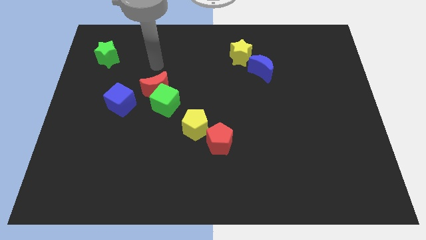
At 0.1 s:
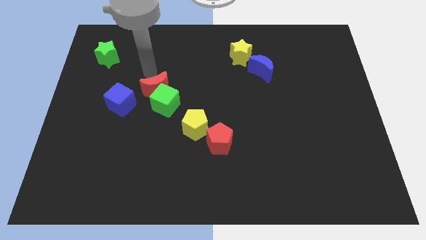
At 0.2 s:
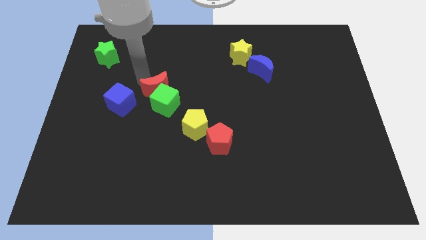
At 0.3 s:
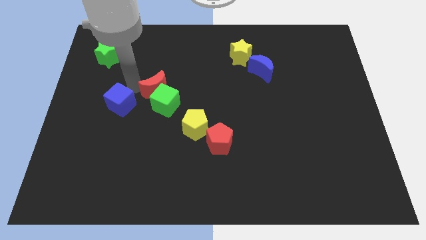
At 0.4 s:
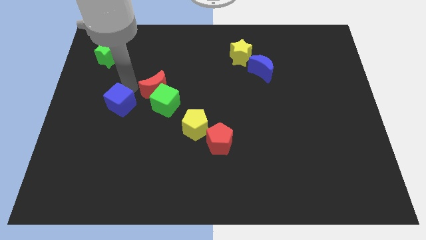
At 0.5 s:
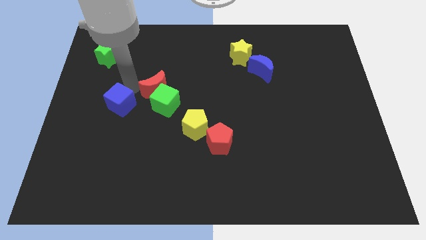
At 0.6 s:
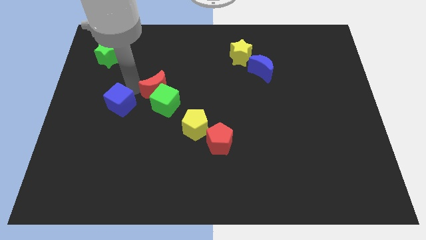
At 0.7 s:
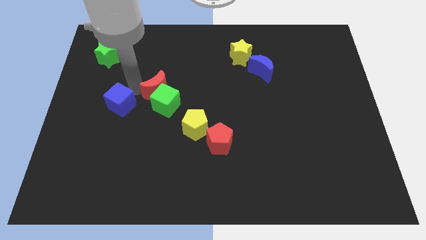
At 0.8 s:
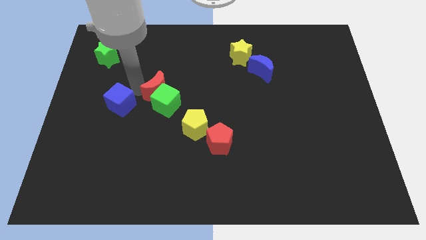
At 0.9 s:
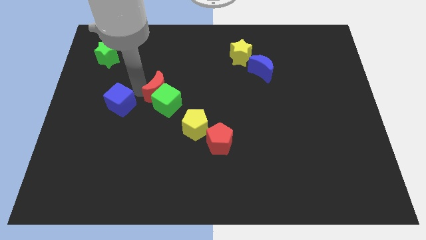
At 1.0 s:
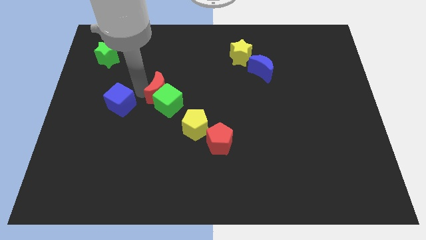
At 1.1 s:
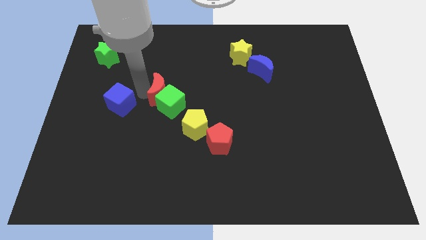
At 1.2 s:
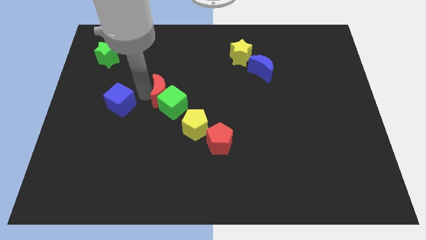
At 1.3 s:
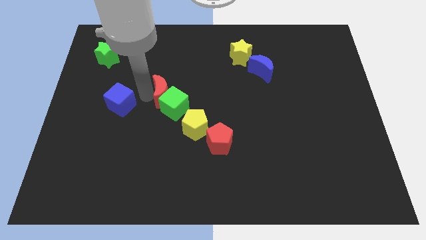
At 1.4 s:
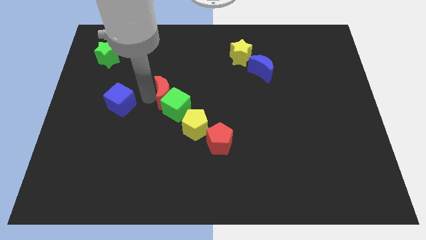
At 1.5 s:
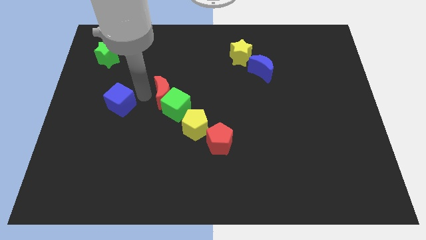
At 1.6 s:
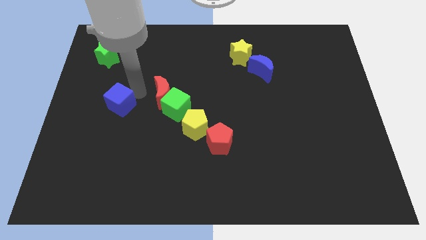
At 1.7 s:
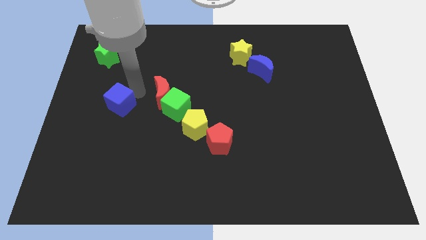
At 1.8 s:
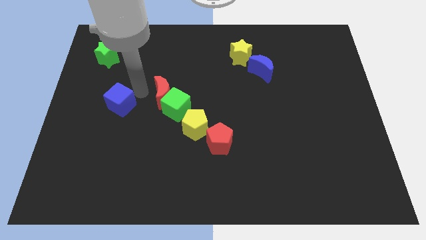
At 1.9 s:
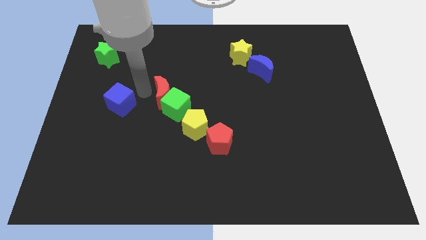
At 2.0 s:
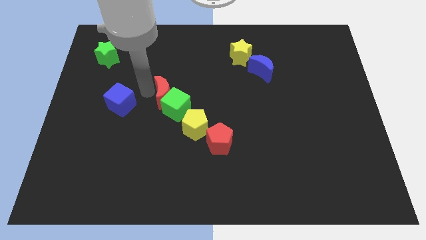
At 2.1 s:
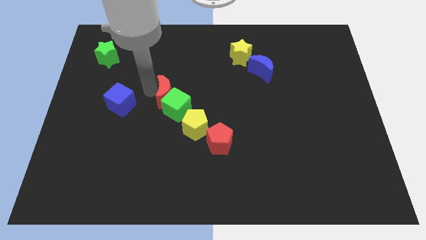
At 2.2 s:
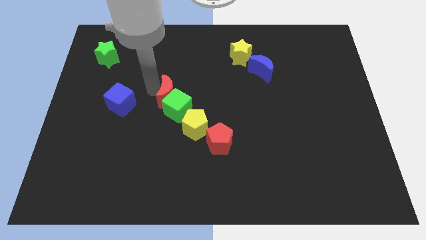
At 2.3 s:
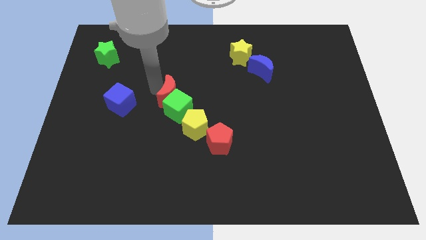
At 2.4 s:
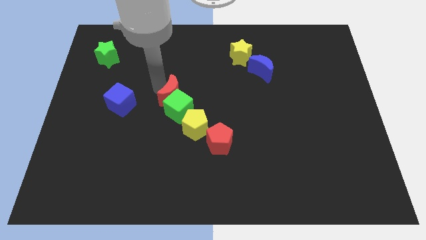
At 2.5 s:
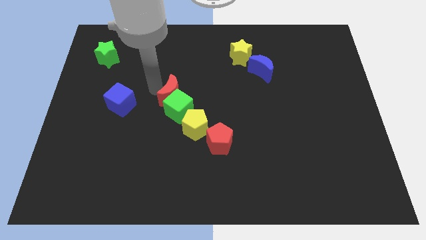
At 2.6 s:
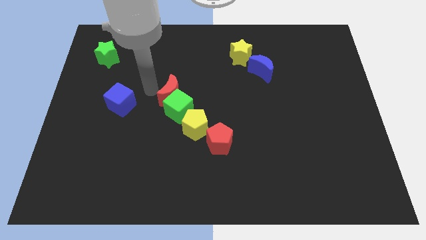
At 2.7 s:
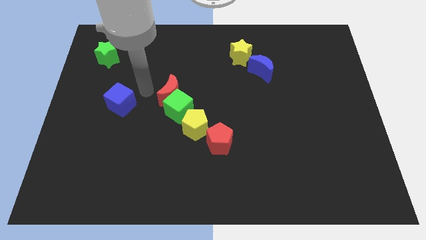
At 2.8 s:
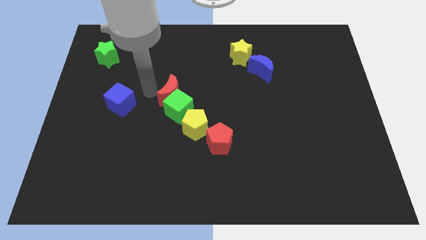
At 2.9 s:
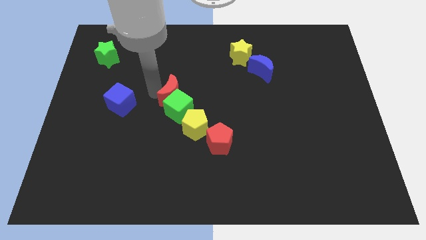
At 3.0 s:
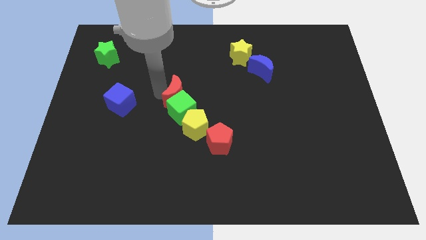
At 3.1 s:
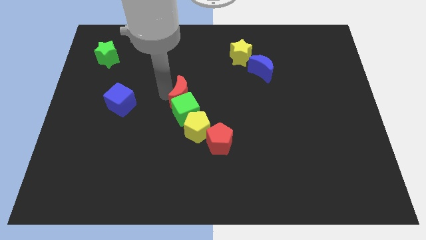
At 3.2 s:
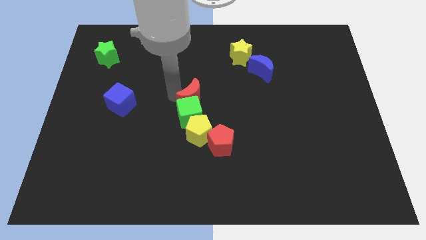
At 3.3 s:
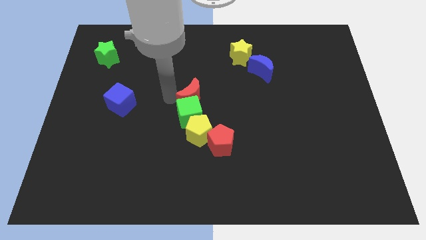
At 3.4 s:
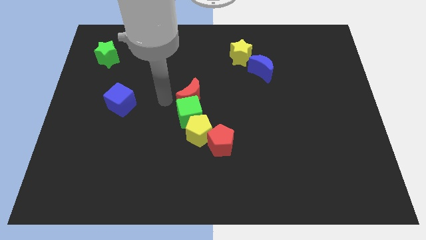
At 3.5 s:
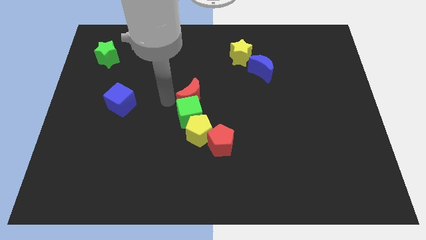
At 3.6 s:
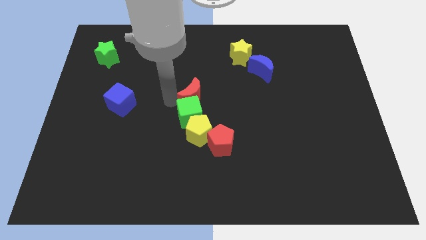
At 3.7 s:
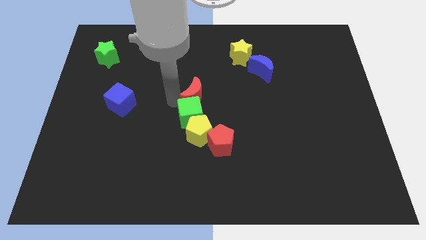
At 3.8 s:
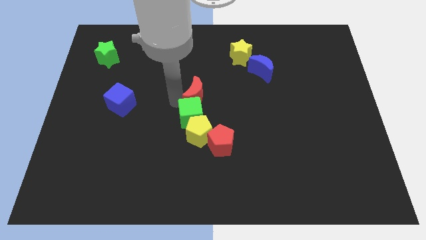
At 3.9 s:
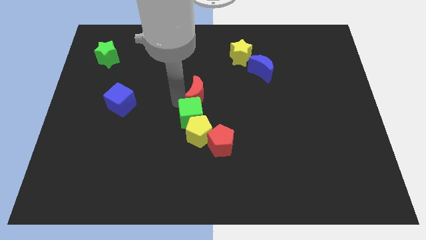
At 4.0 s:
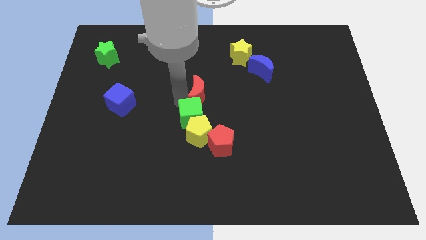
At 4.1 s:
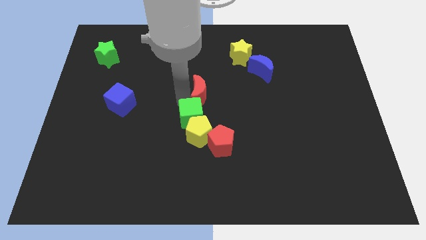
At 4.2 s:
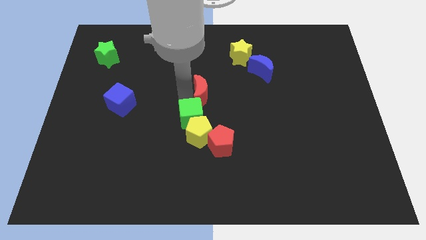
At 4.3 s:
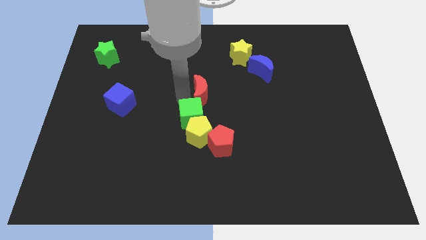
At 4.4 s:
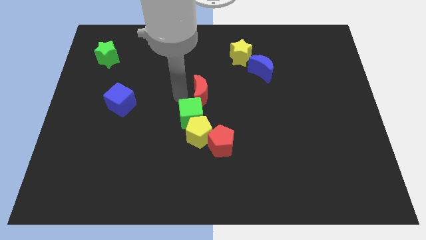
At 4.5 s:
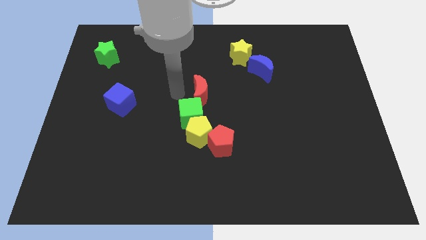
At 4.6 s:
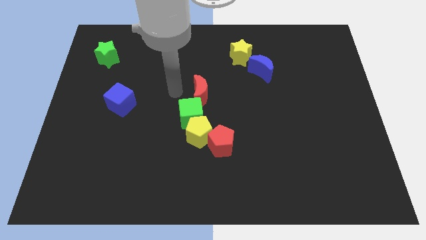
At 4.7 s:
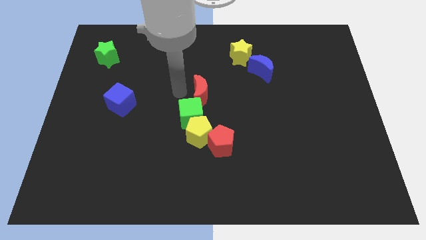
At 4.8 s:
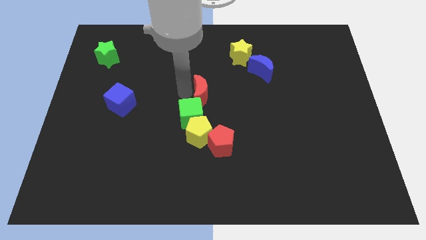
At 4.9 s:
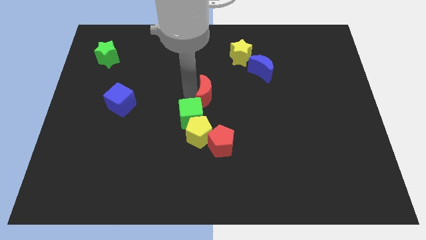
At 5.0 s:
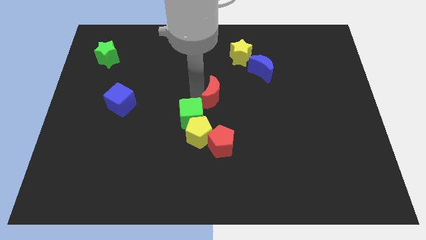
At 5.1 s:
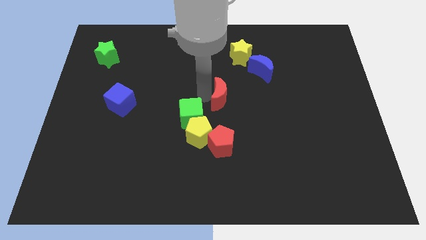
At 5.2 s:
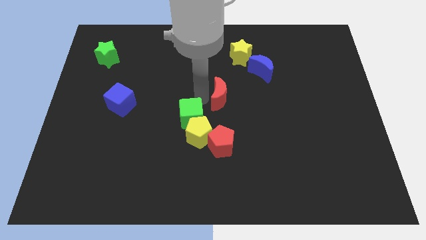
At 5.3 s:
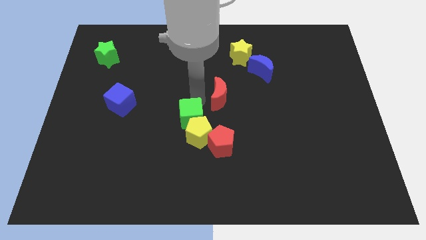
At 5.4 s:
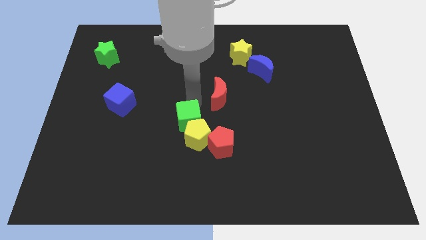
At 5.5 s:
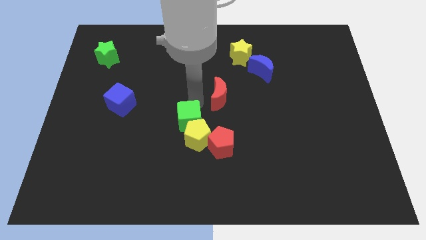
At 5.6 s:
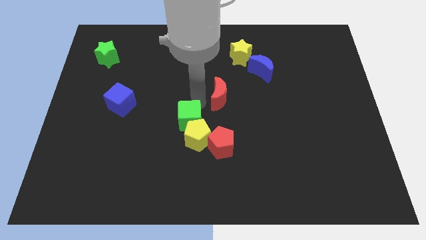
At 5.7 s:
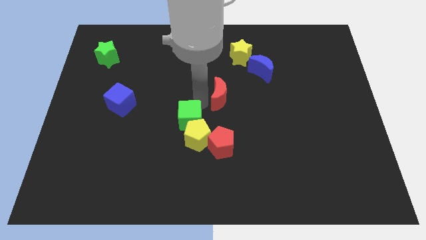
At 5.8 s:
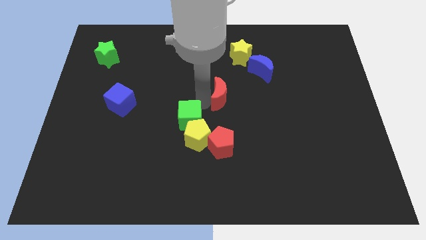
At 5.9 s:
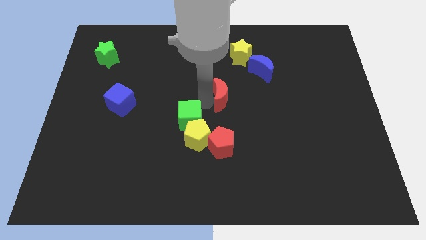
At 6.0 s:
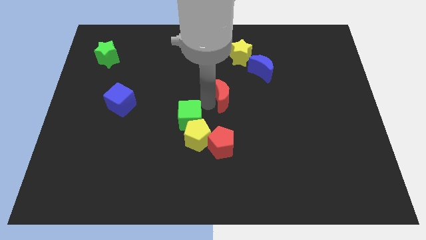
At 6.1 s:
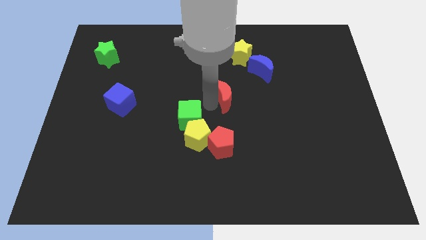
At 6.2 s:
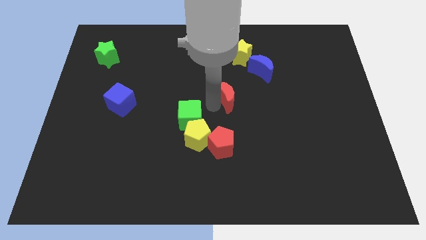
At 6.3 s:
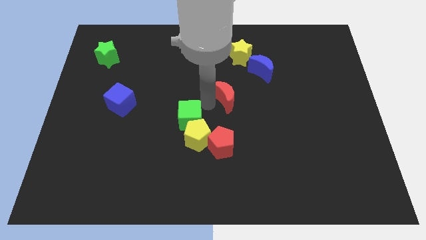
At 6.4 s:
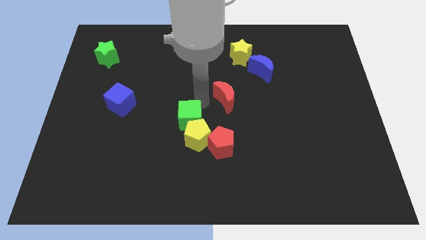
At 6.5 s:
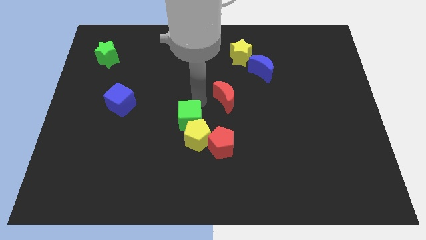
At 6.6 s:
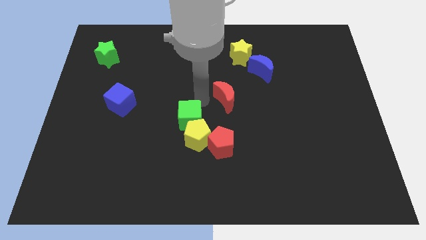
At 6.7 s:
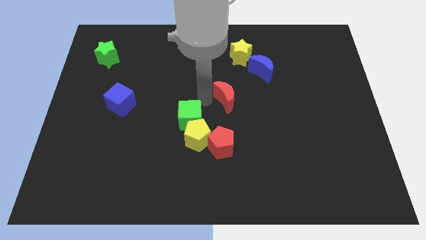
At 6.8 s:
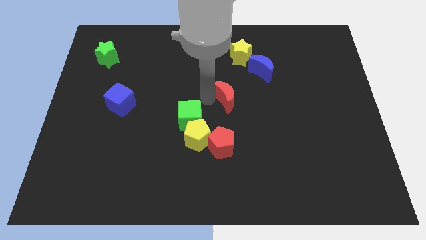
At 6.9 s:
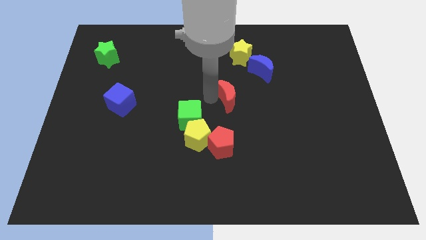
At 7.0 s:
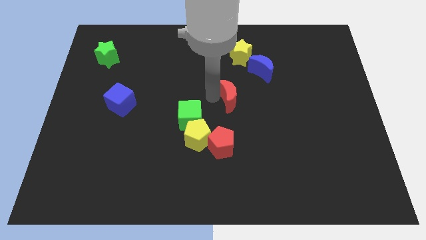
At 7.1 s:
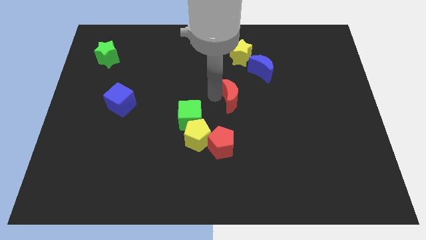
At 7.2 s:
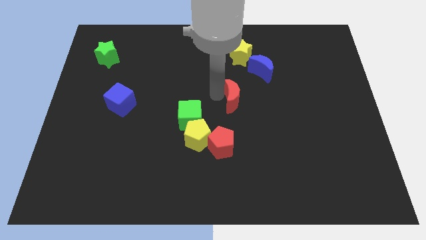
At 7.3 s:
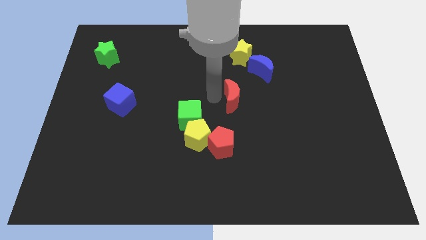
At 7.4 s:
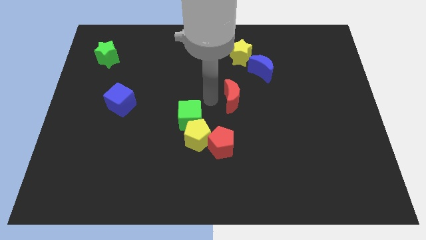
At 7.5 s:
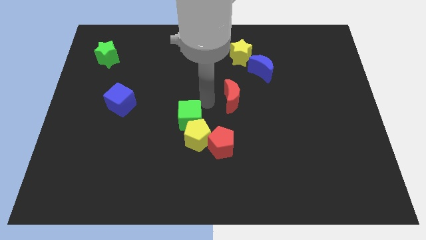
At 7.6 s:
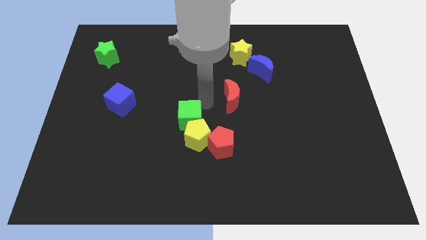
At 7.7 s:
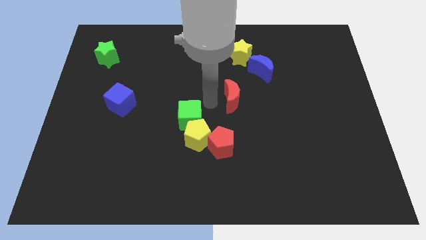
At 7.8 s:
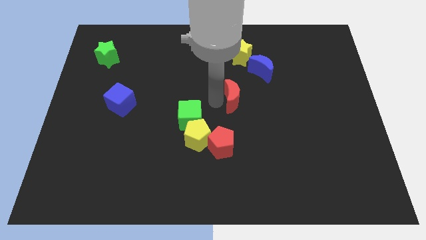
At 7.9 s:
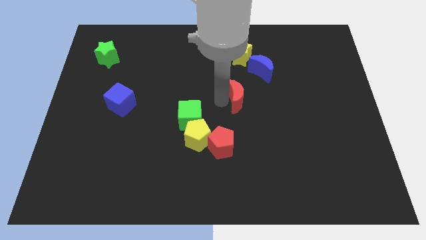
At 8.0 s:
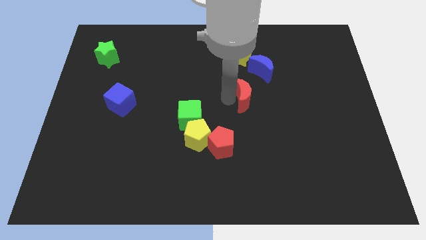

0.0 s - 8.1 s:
push the red moon right

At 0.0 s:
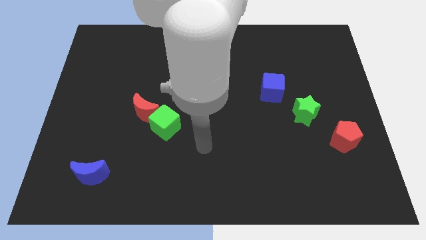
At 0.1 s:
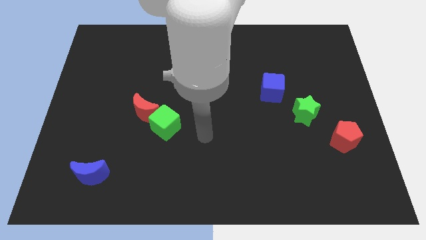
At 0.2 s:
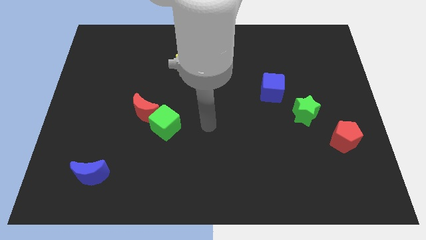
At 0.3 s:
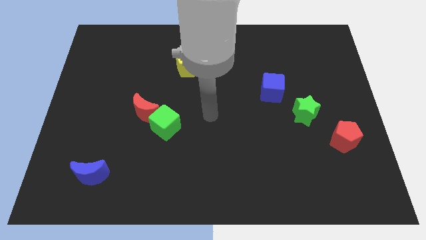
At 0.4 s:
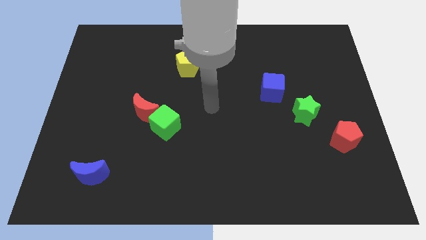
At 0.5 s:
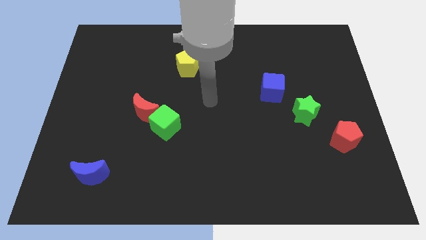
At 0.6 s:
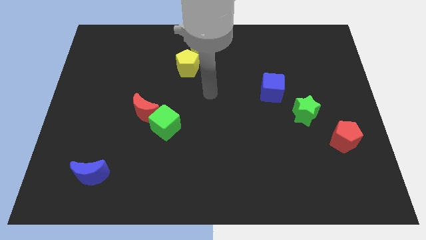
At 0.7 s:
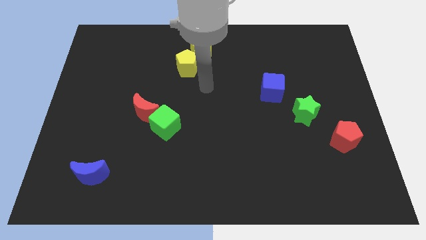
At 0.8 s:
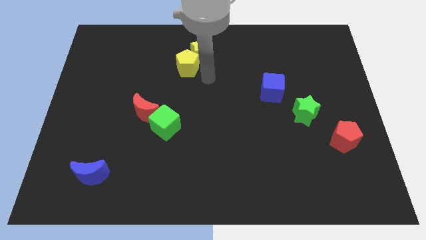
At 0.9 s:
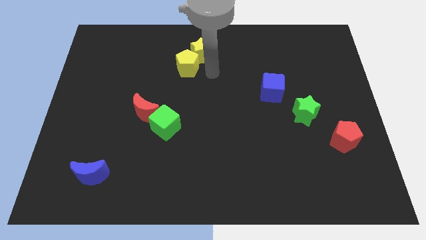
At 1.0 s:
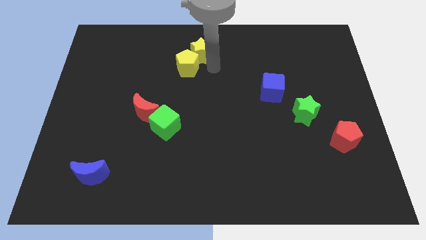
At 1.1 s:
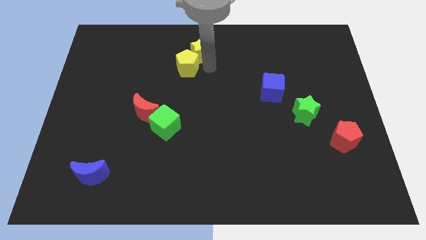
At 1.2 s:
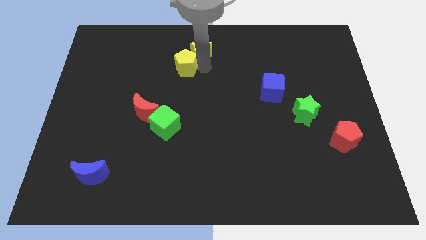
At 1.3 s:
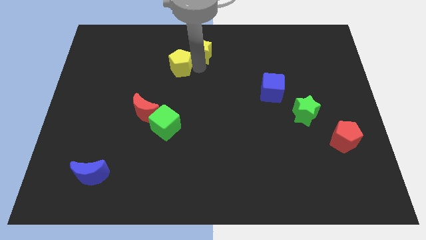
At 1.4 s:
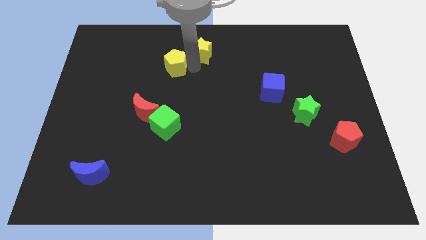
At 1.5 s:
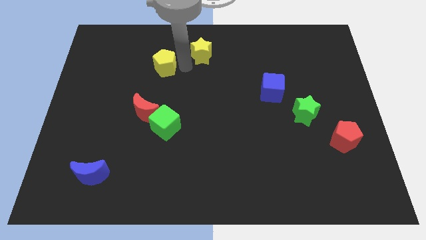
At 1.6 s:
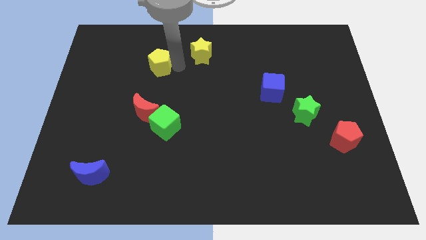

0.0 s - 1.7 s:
slightly slide the yellow pentagon to the left
